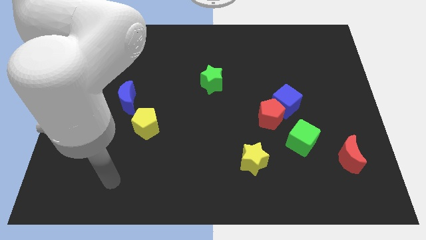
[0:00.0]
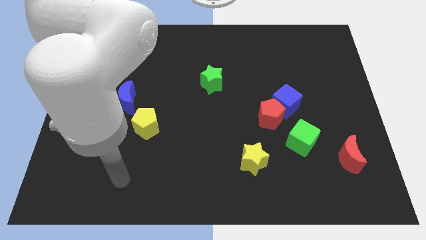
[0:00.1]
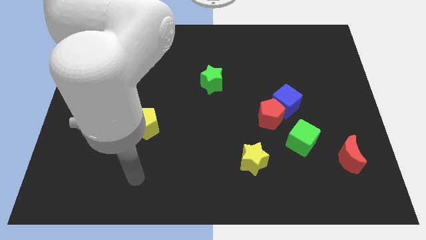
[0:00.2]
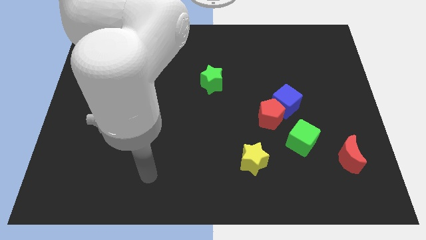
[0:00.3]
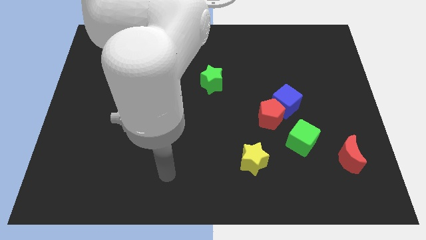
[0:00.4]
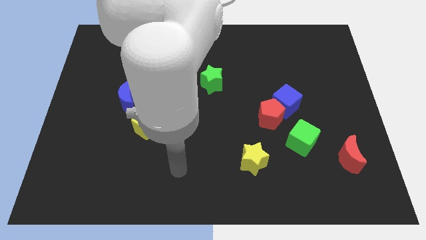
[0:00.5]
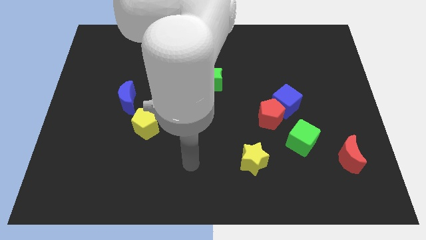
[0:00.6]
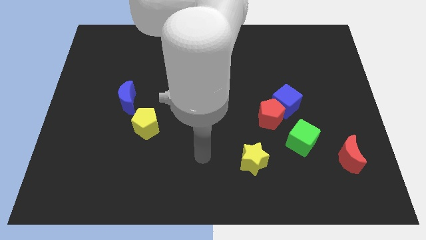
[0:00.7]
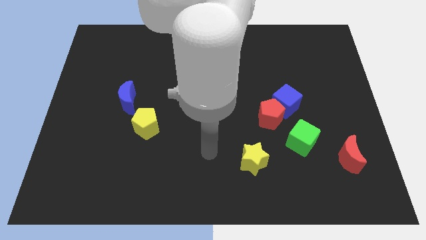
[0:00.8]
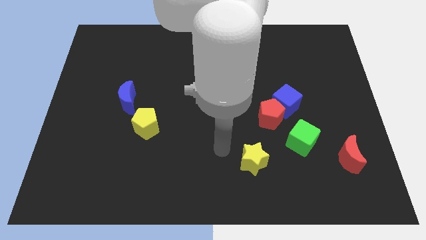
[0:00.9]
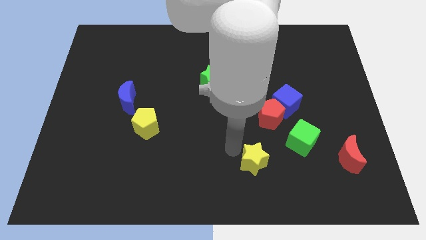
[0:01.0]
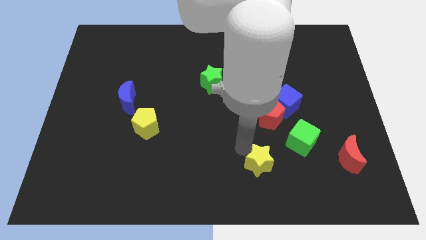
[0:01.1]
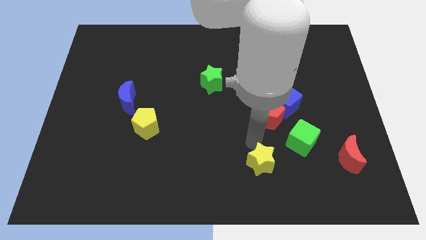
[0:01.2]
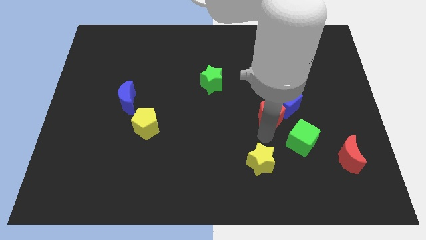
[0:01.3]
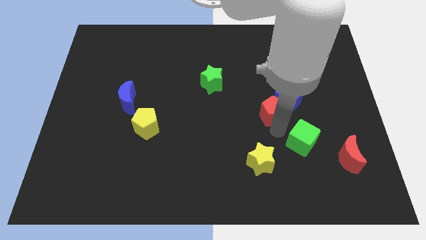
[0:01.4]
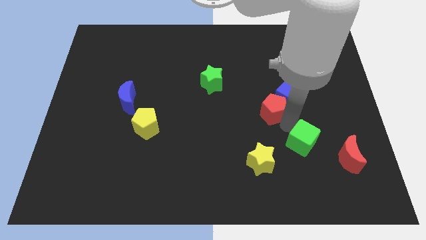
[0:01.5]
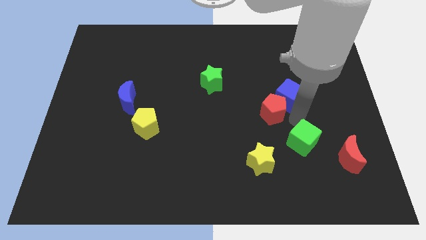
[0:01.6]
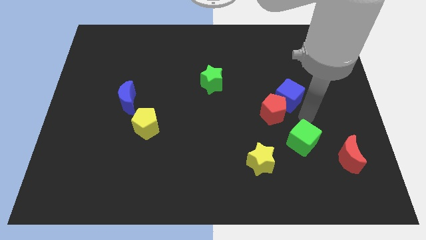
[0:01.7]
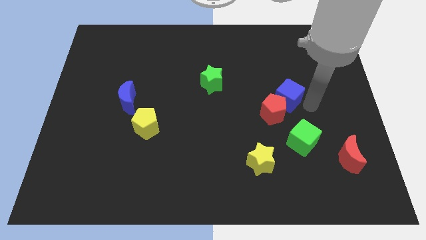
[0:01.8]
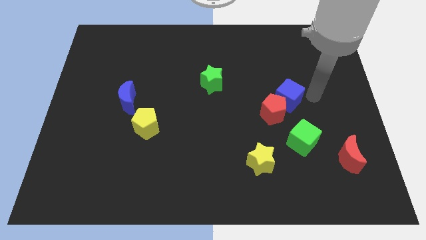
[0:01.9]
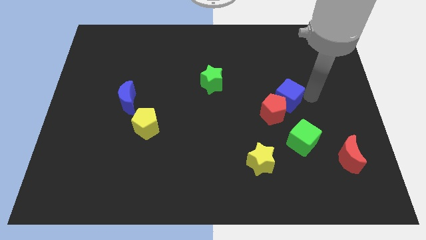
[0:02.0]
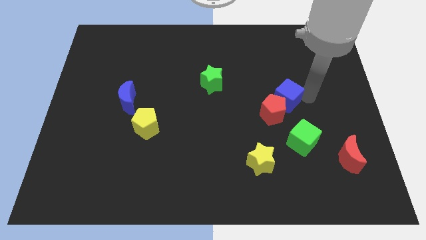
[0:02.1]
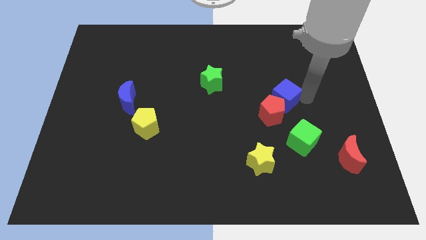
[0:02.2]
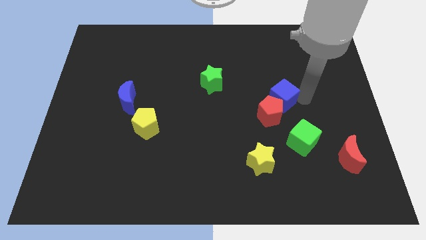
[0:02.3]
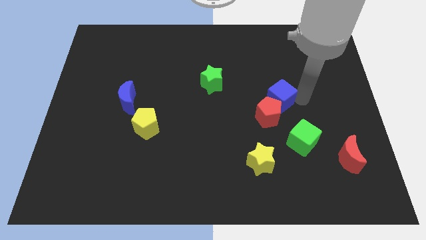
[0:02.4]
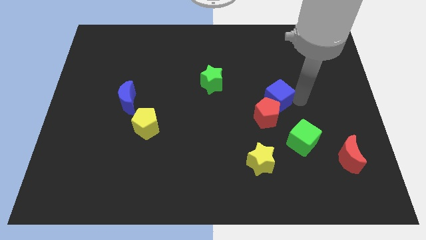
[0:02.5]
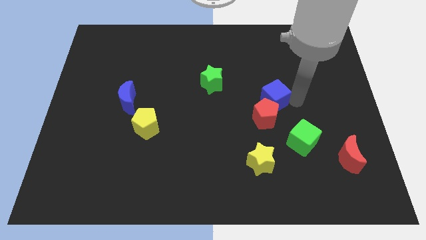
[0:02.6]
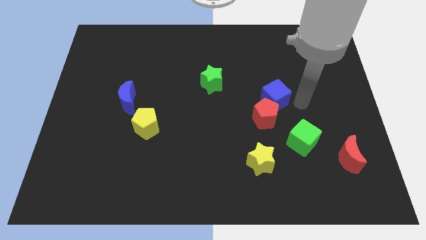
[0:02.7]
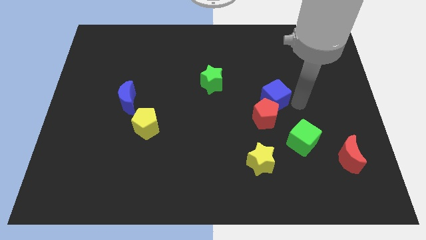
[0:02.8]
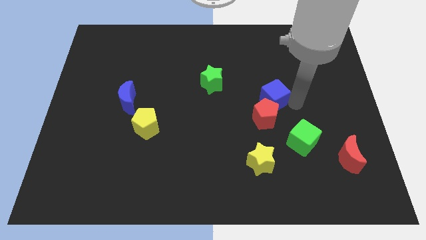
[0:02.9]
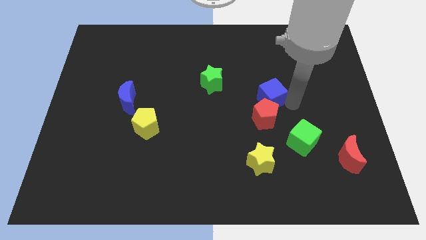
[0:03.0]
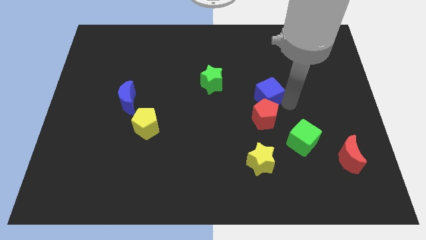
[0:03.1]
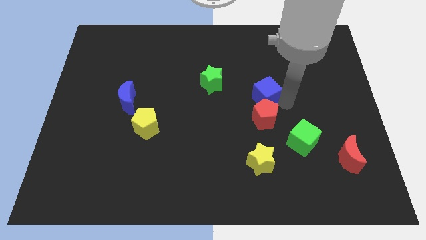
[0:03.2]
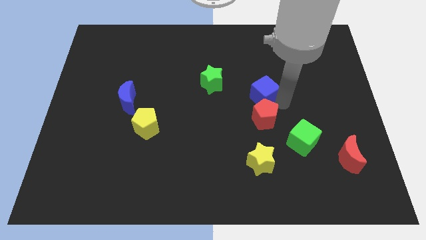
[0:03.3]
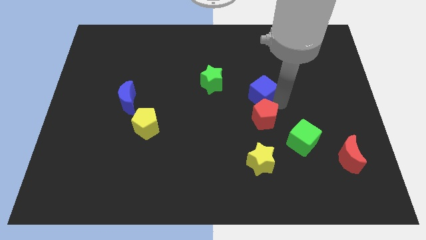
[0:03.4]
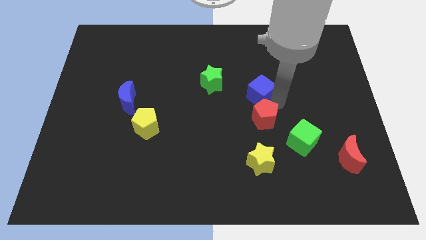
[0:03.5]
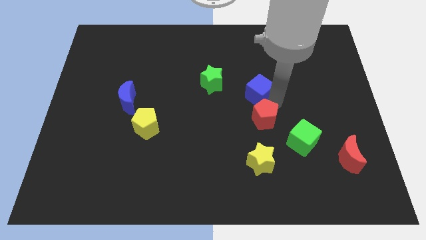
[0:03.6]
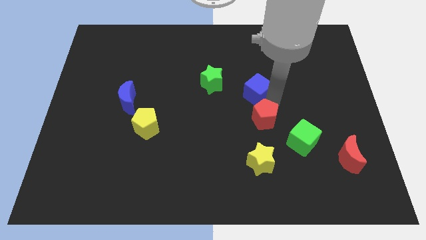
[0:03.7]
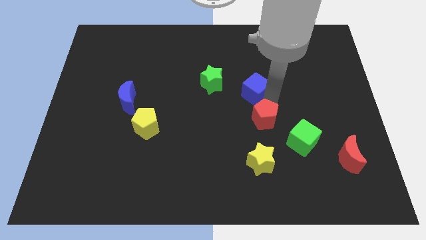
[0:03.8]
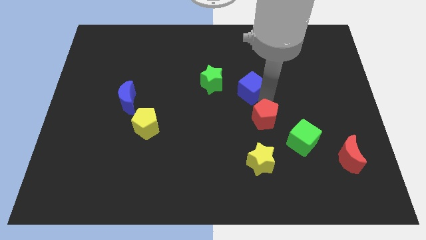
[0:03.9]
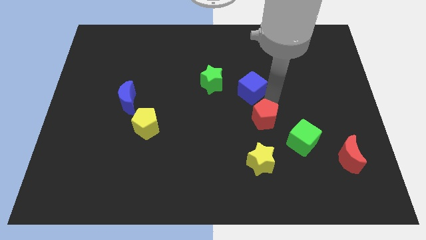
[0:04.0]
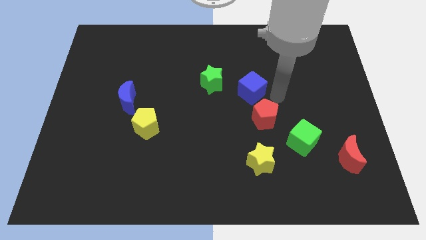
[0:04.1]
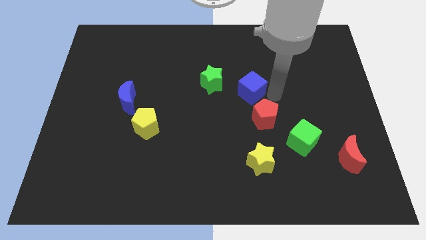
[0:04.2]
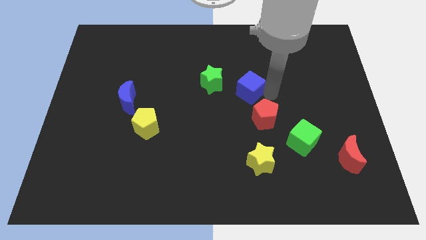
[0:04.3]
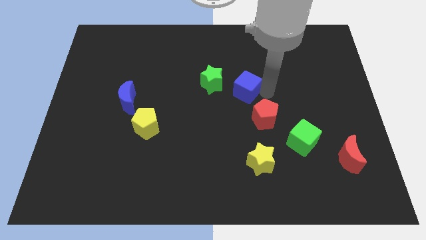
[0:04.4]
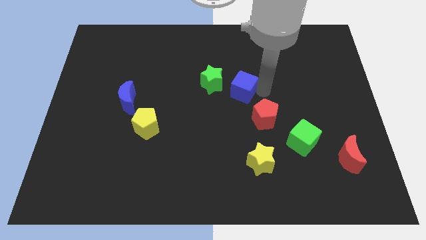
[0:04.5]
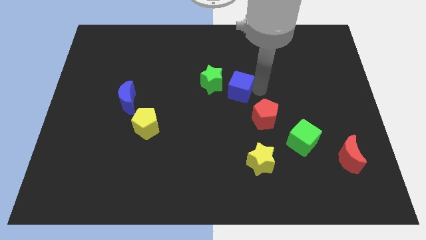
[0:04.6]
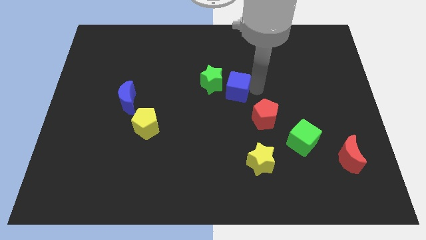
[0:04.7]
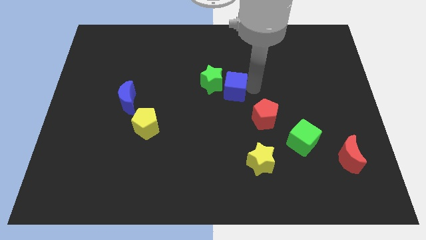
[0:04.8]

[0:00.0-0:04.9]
slide the blue cube to the green star

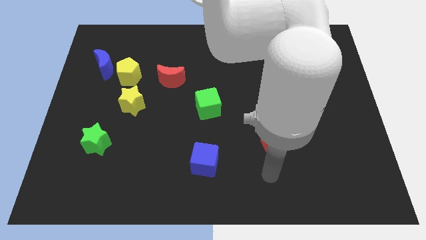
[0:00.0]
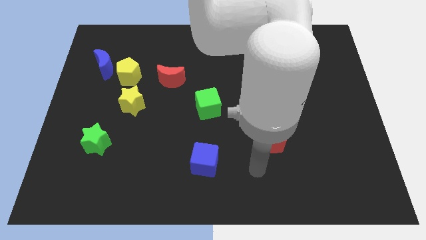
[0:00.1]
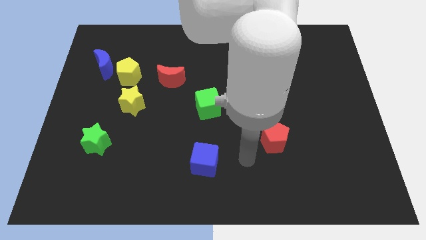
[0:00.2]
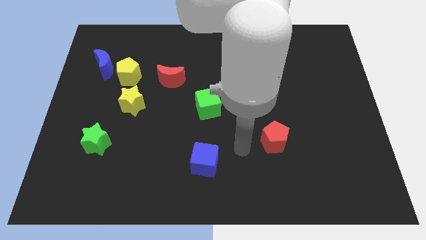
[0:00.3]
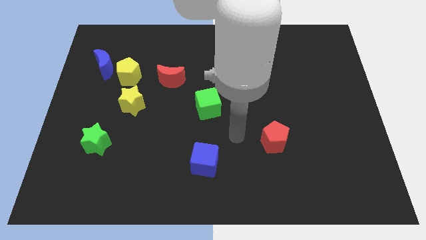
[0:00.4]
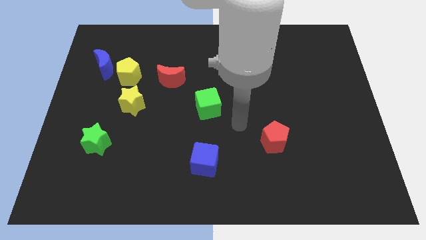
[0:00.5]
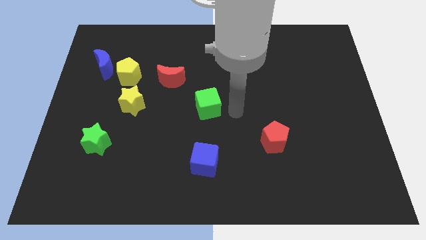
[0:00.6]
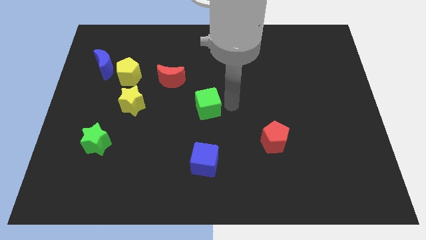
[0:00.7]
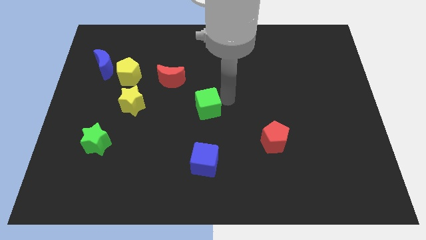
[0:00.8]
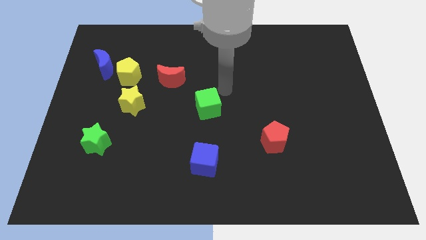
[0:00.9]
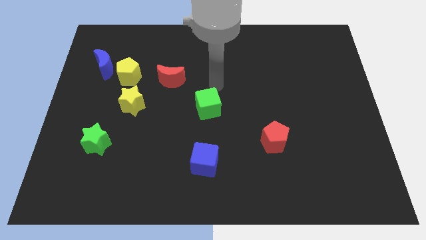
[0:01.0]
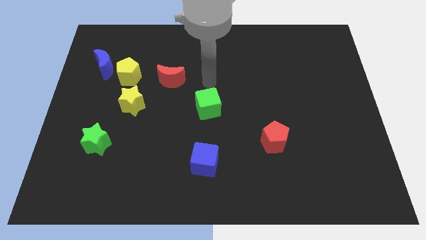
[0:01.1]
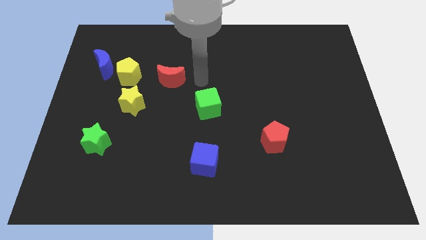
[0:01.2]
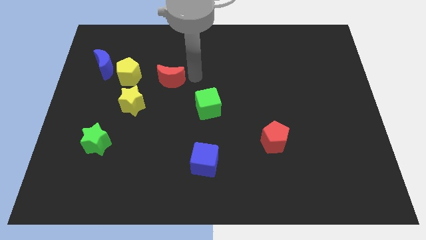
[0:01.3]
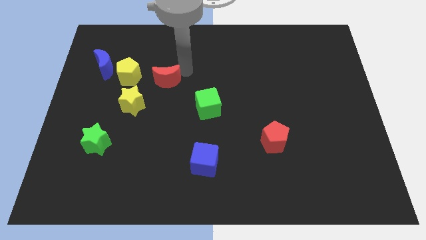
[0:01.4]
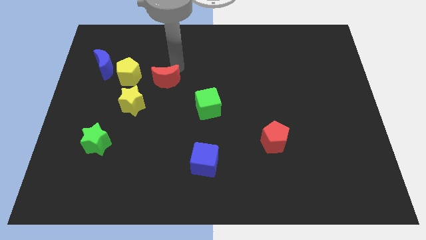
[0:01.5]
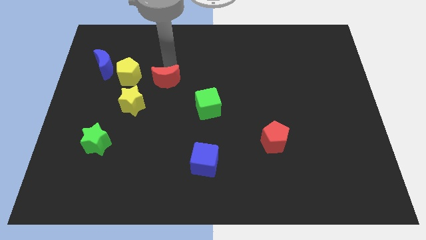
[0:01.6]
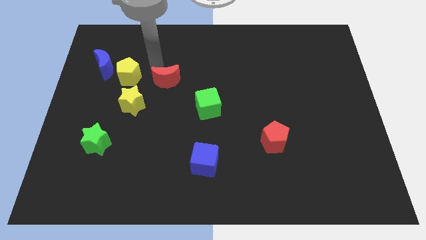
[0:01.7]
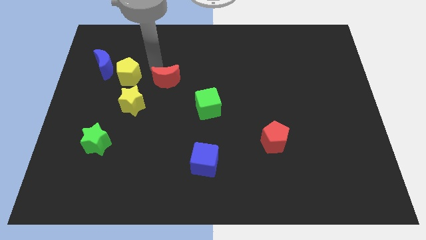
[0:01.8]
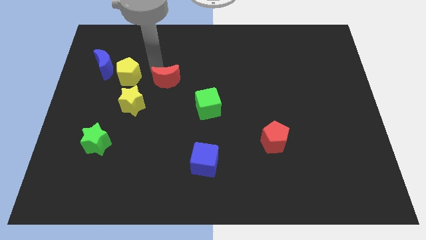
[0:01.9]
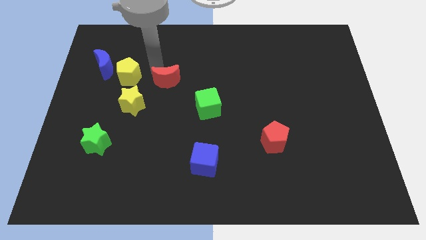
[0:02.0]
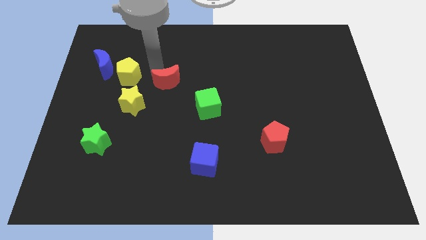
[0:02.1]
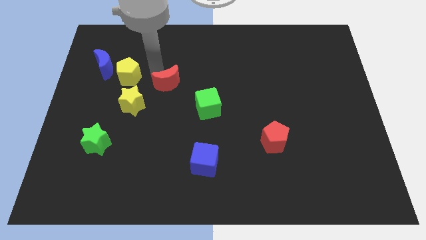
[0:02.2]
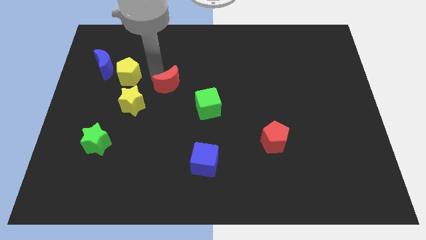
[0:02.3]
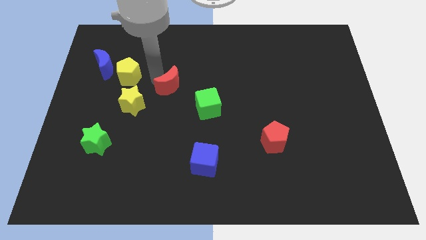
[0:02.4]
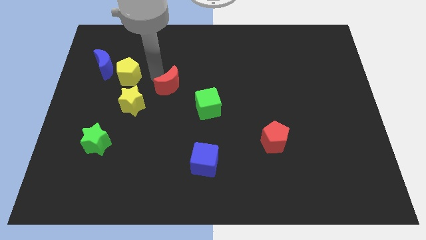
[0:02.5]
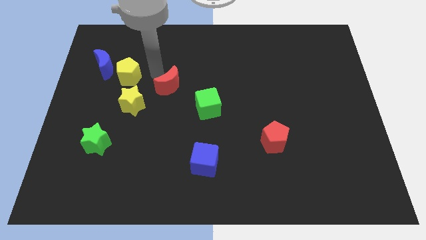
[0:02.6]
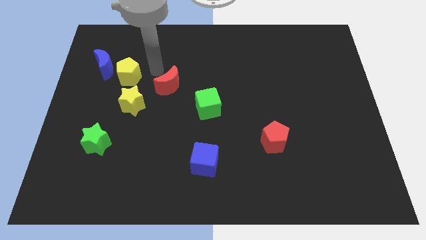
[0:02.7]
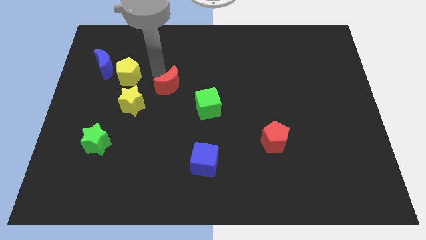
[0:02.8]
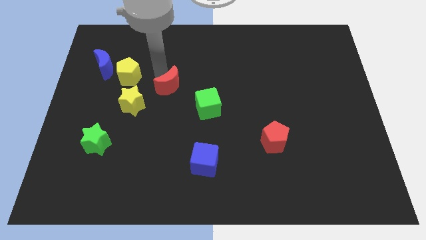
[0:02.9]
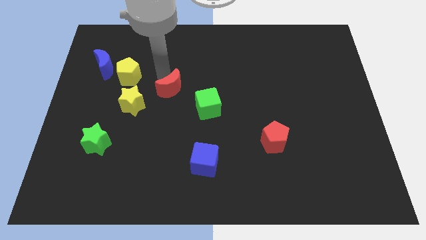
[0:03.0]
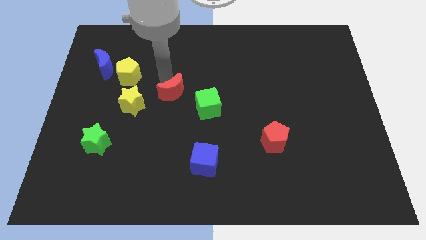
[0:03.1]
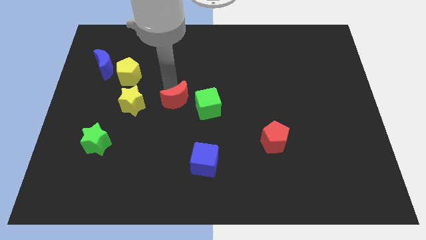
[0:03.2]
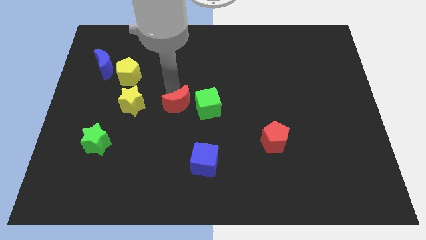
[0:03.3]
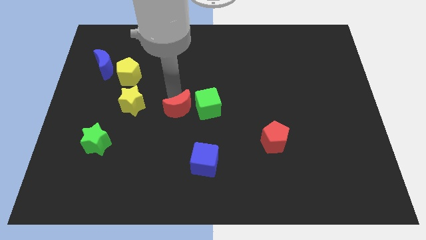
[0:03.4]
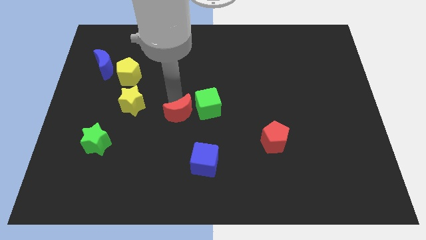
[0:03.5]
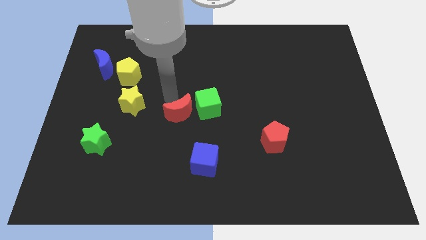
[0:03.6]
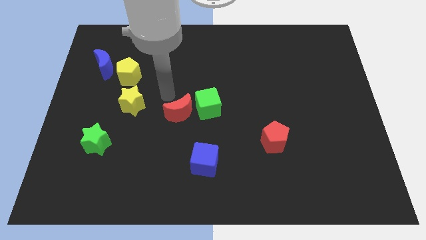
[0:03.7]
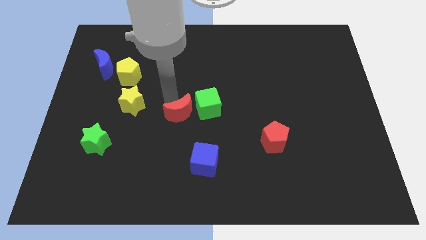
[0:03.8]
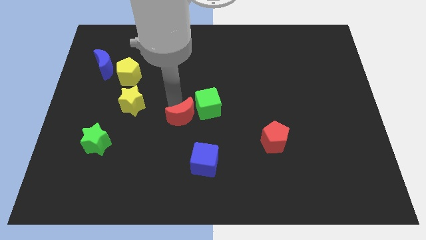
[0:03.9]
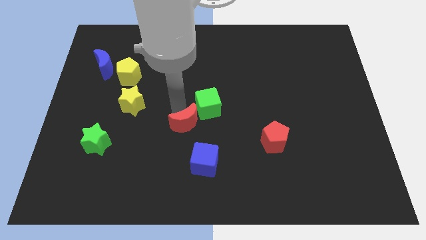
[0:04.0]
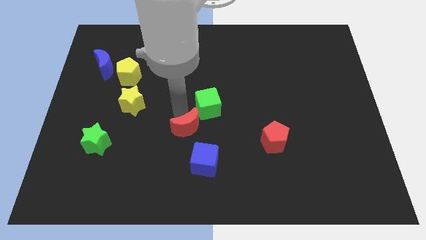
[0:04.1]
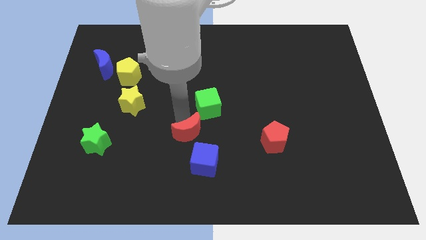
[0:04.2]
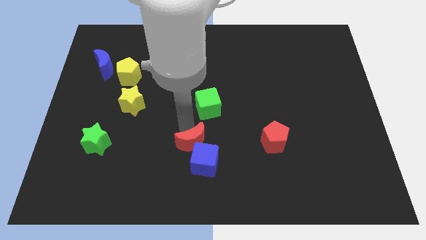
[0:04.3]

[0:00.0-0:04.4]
move the red moon to the blue cube
